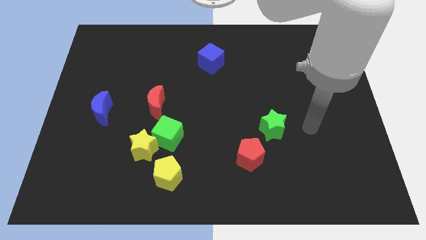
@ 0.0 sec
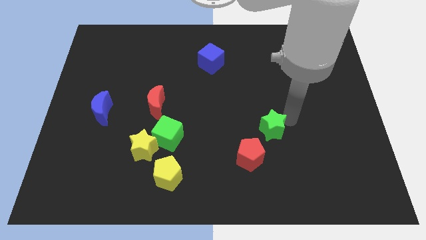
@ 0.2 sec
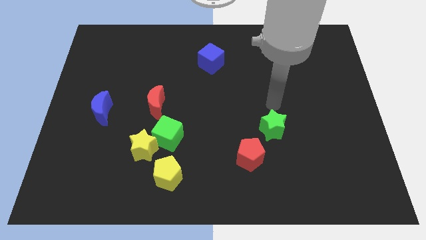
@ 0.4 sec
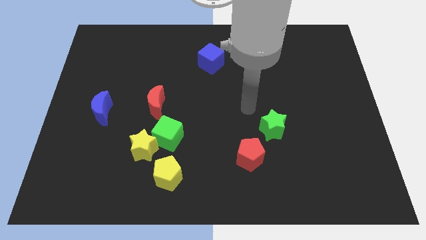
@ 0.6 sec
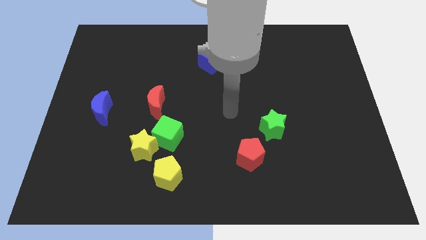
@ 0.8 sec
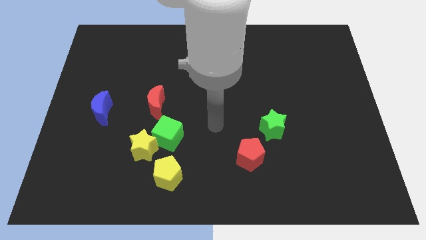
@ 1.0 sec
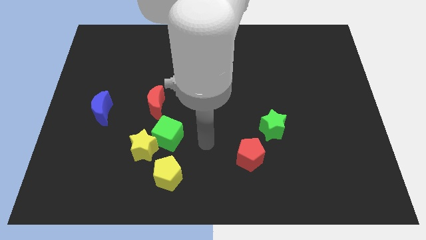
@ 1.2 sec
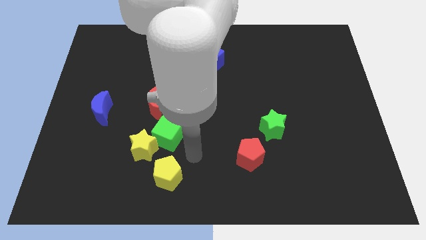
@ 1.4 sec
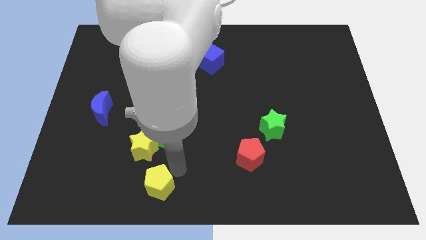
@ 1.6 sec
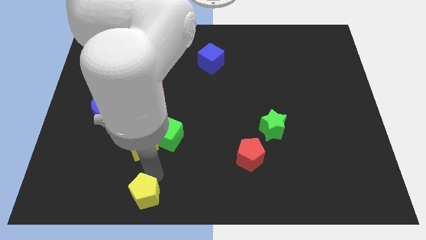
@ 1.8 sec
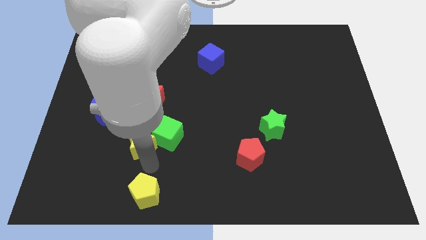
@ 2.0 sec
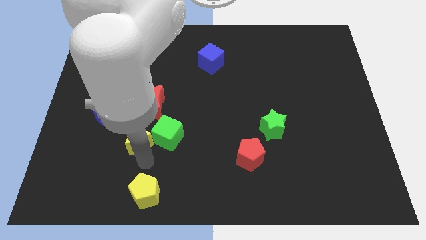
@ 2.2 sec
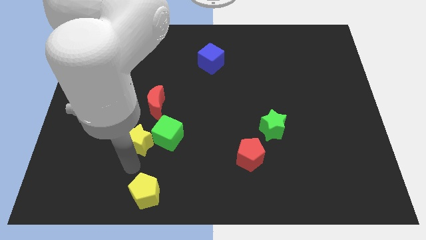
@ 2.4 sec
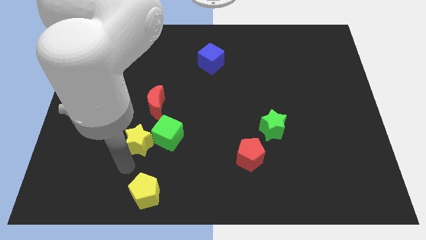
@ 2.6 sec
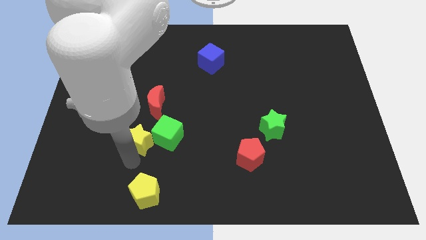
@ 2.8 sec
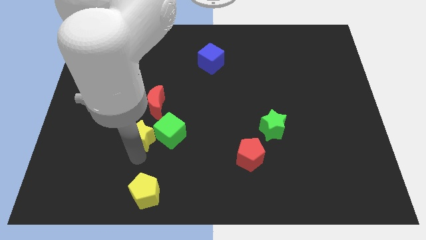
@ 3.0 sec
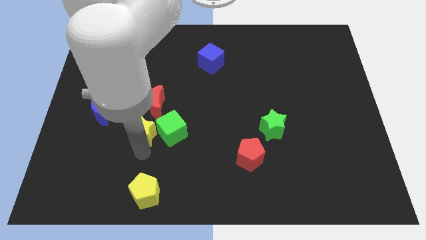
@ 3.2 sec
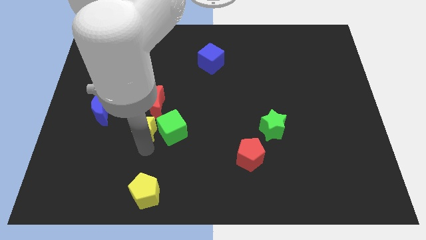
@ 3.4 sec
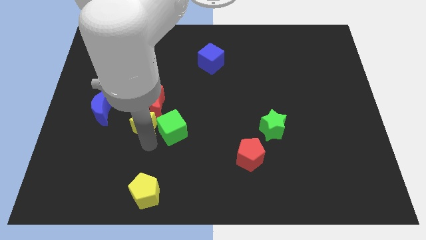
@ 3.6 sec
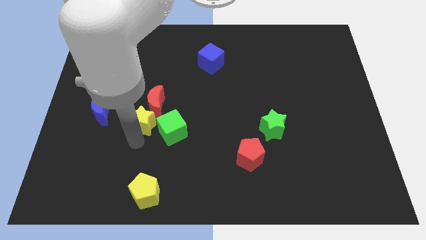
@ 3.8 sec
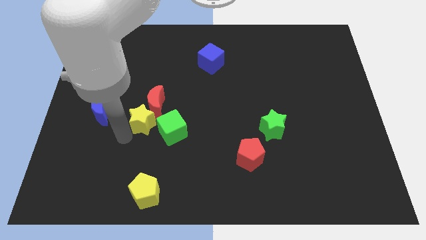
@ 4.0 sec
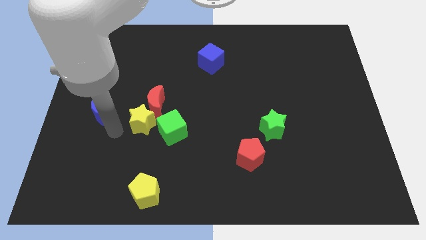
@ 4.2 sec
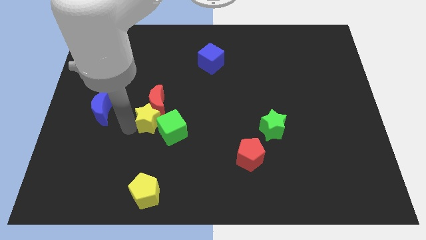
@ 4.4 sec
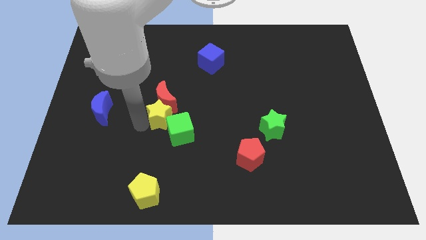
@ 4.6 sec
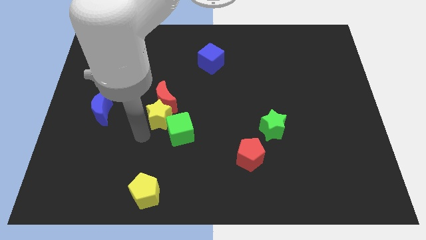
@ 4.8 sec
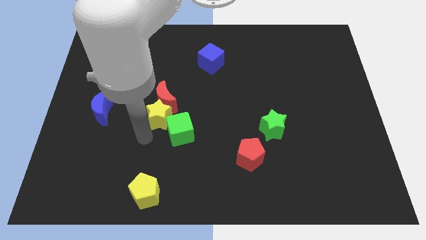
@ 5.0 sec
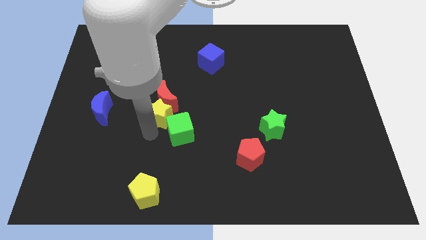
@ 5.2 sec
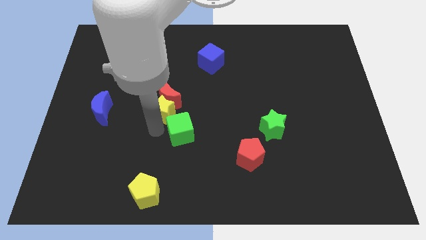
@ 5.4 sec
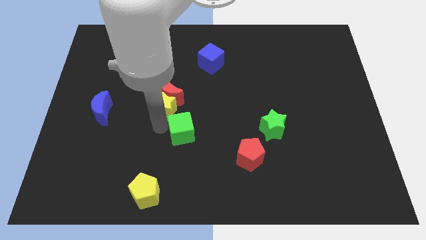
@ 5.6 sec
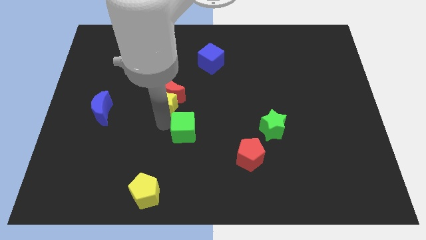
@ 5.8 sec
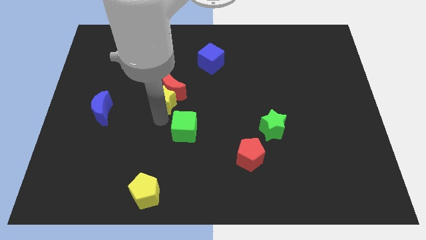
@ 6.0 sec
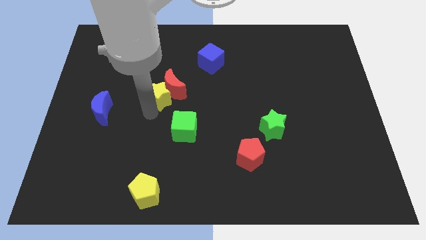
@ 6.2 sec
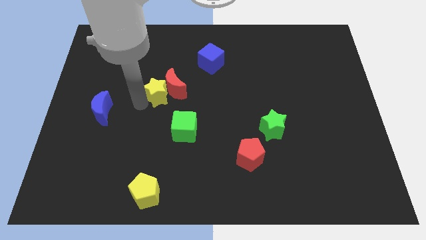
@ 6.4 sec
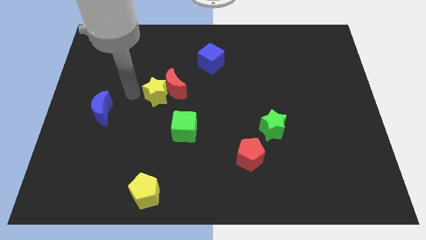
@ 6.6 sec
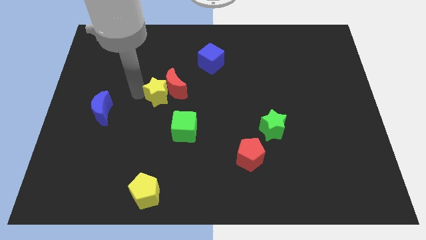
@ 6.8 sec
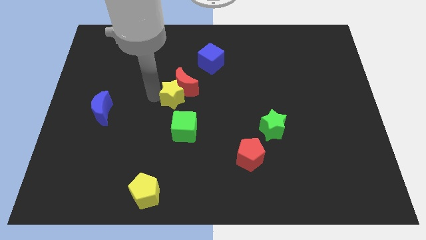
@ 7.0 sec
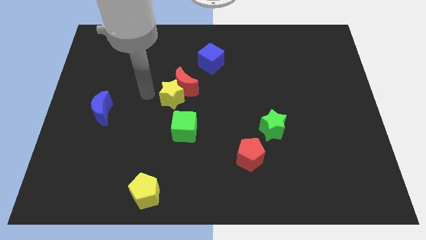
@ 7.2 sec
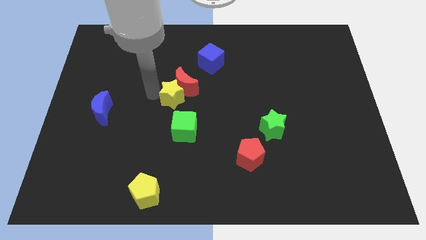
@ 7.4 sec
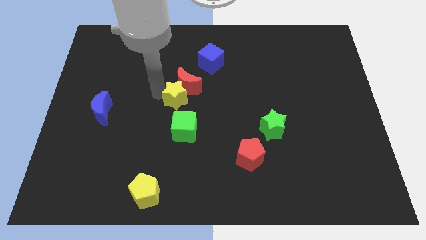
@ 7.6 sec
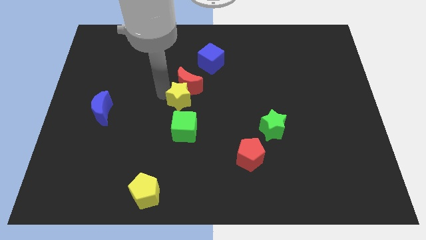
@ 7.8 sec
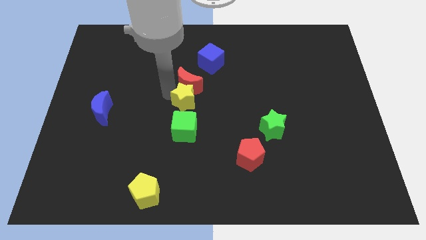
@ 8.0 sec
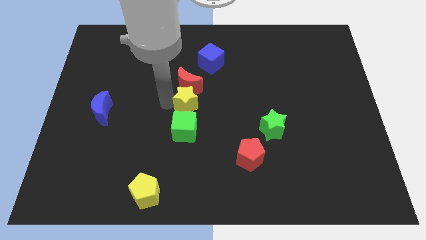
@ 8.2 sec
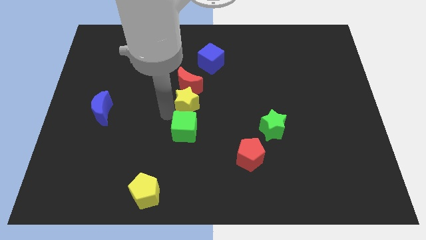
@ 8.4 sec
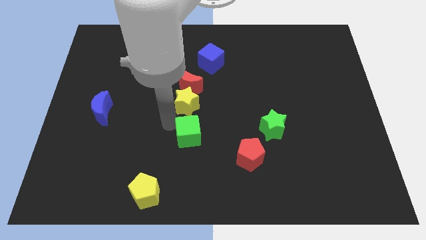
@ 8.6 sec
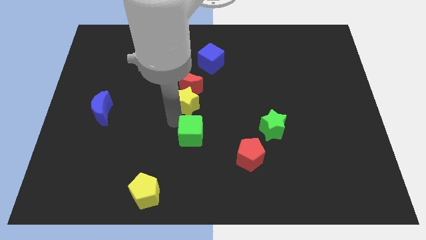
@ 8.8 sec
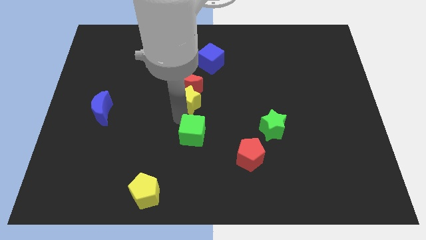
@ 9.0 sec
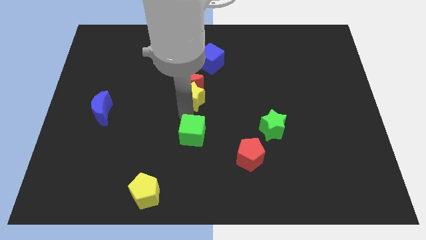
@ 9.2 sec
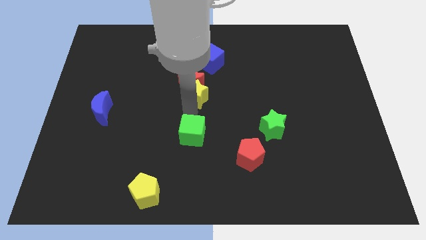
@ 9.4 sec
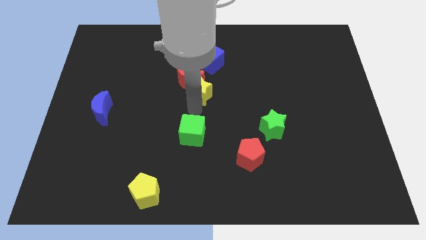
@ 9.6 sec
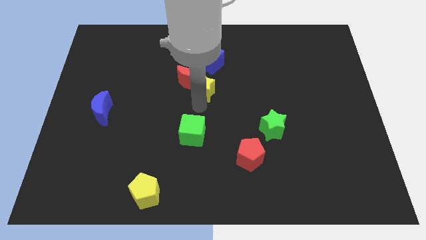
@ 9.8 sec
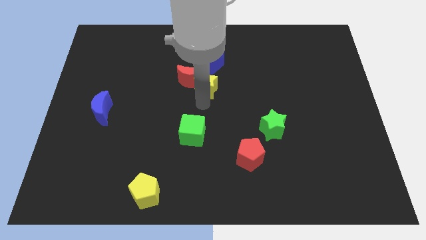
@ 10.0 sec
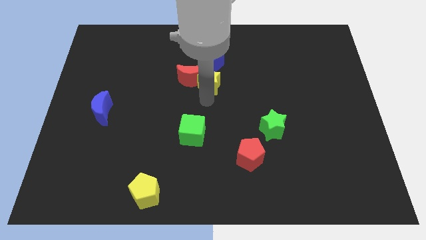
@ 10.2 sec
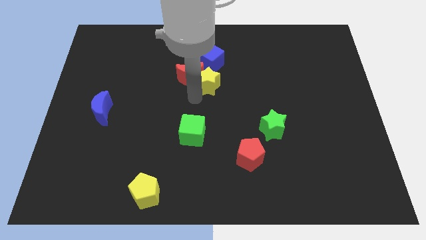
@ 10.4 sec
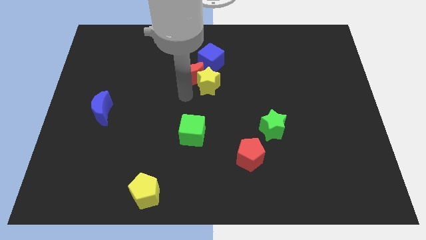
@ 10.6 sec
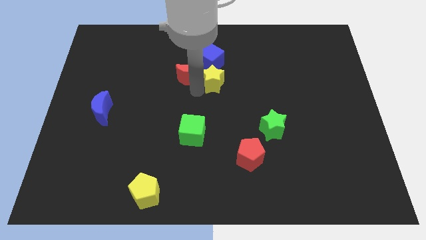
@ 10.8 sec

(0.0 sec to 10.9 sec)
slide the yellow star to the bottom right of the blue cube
